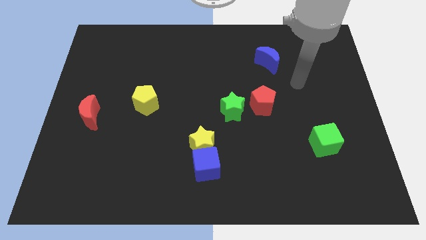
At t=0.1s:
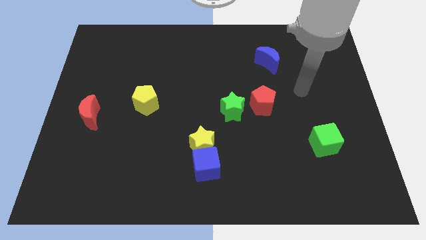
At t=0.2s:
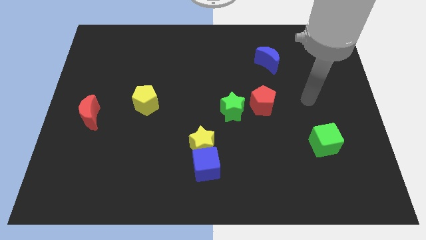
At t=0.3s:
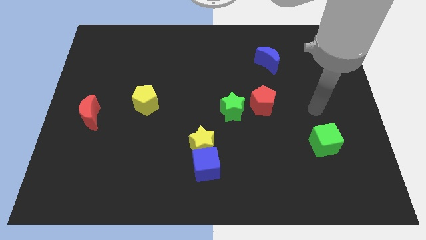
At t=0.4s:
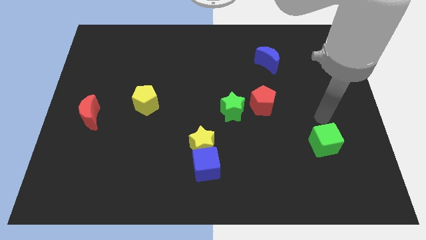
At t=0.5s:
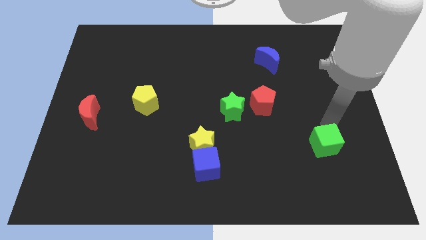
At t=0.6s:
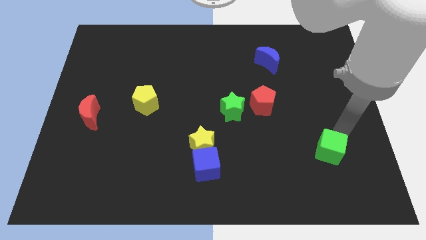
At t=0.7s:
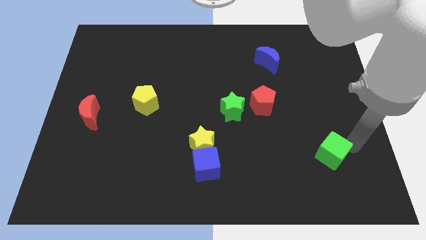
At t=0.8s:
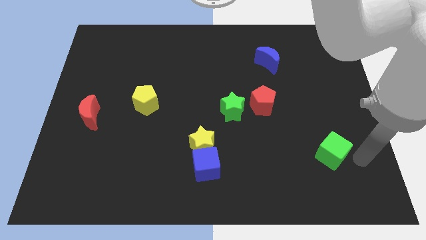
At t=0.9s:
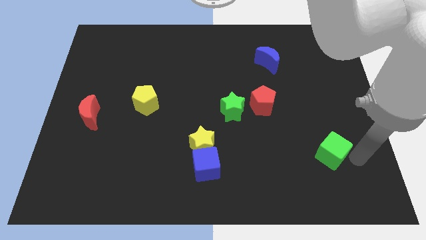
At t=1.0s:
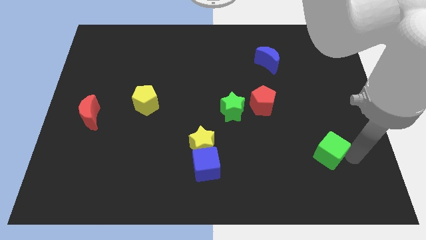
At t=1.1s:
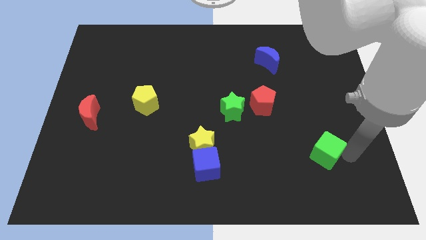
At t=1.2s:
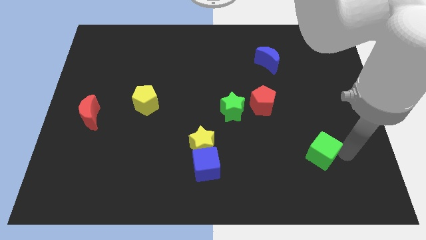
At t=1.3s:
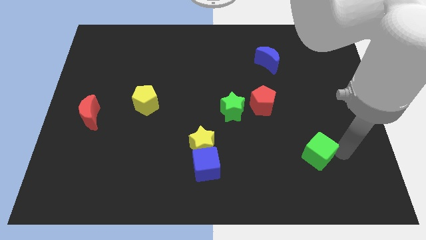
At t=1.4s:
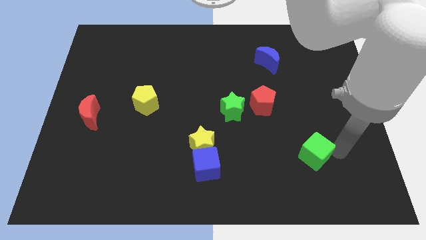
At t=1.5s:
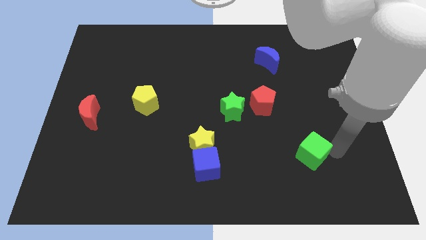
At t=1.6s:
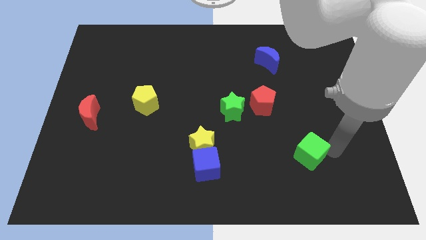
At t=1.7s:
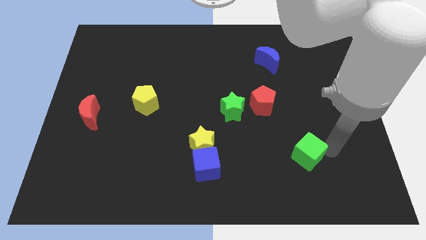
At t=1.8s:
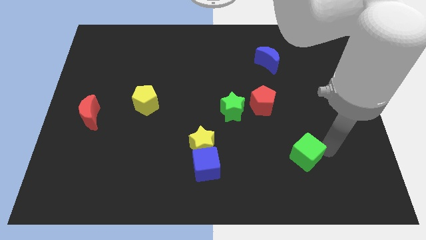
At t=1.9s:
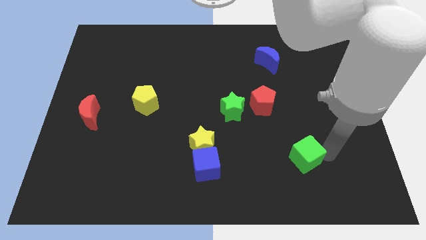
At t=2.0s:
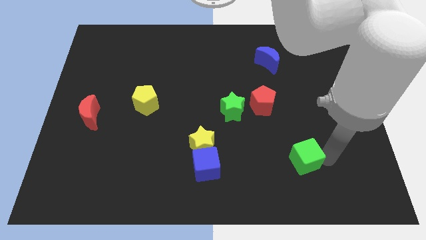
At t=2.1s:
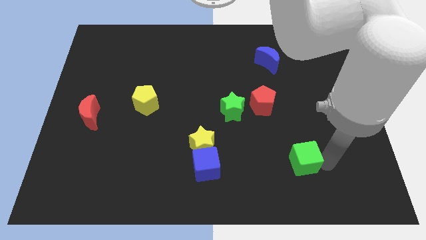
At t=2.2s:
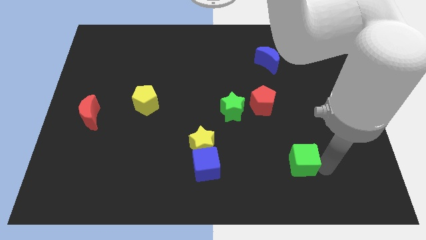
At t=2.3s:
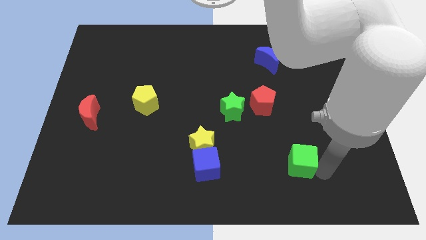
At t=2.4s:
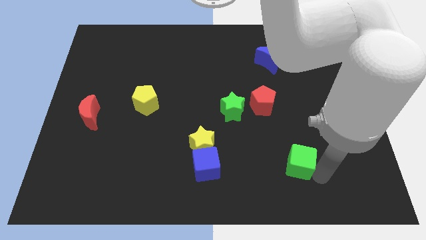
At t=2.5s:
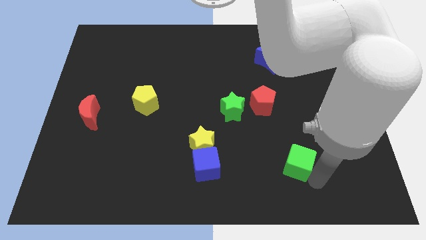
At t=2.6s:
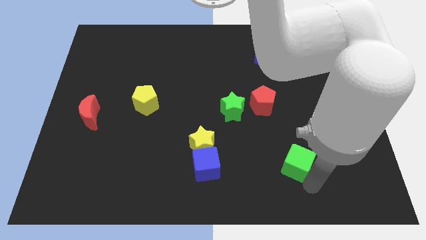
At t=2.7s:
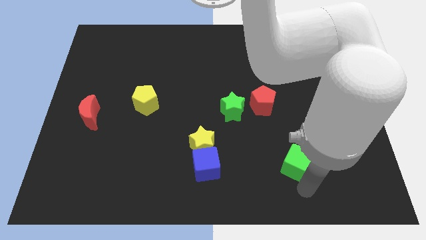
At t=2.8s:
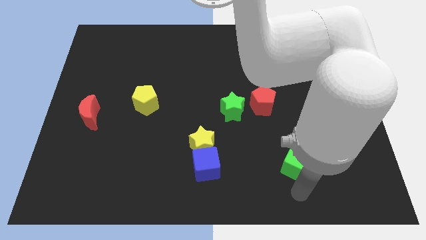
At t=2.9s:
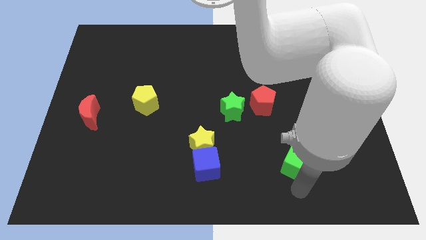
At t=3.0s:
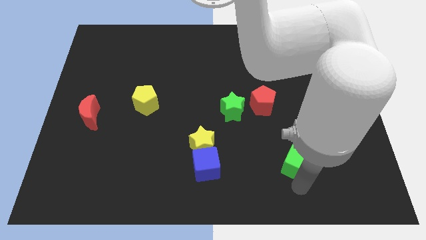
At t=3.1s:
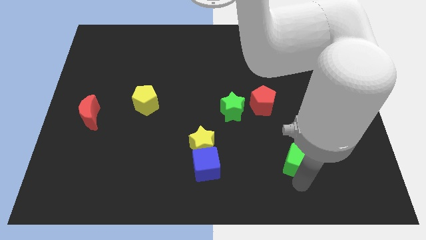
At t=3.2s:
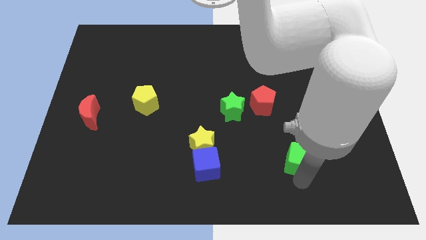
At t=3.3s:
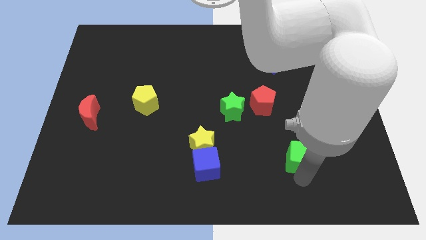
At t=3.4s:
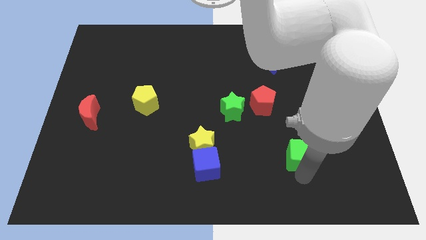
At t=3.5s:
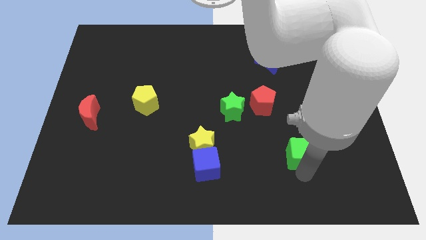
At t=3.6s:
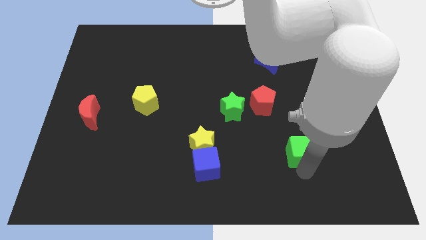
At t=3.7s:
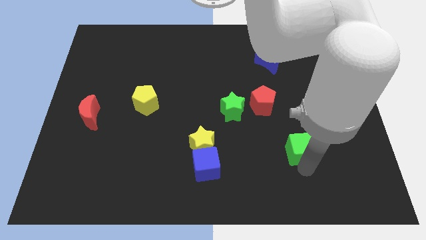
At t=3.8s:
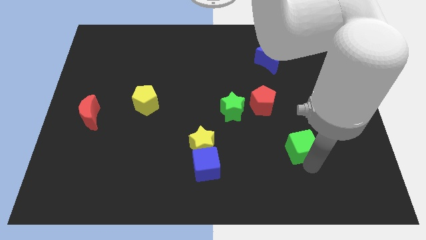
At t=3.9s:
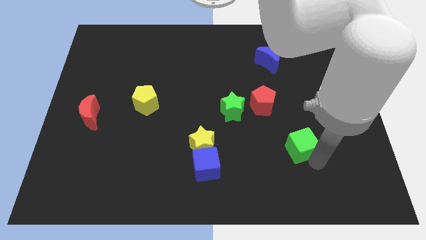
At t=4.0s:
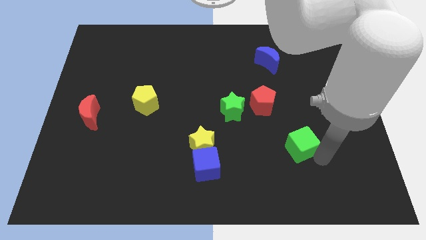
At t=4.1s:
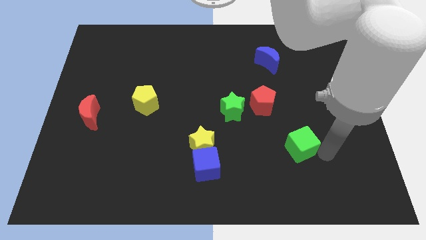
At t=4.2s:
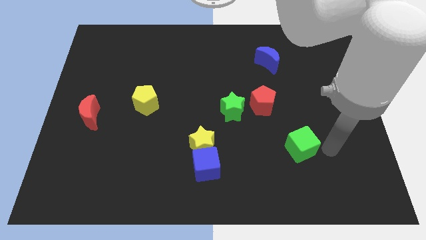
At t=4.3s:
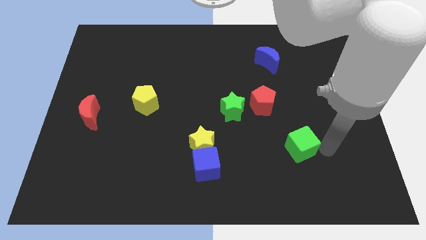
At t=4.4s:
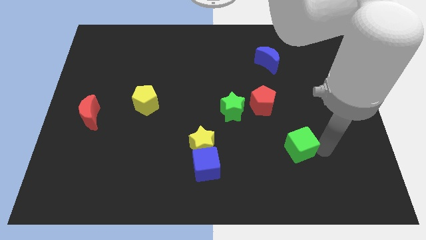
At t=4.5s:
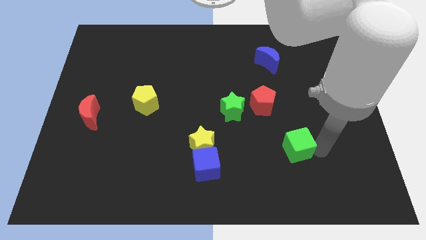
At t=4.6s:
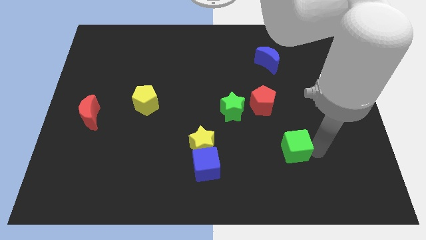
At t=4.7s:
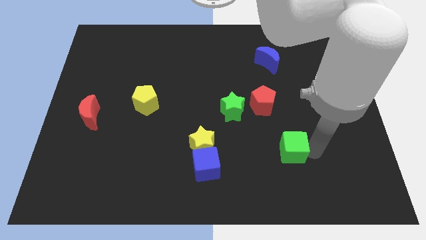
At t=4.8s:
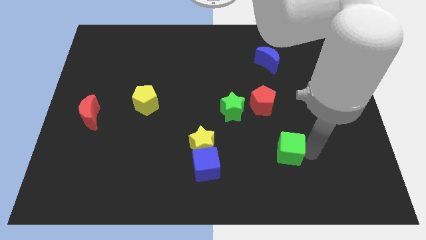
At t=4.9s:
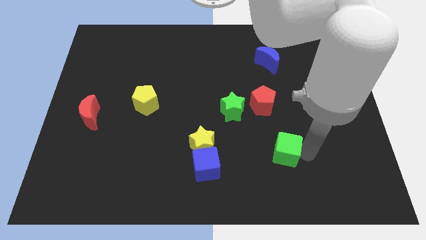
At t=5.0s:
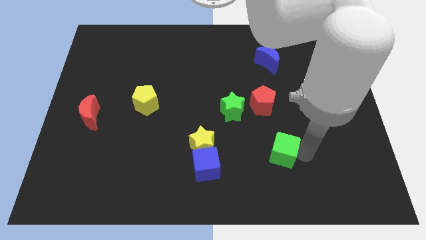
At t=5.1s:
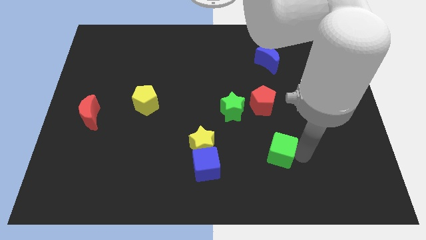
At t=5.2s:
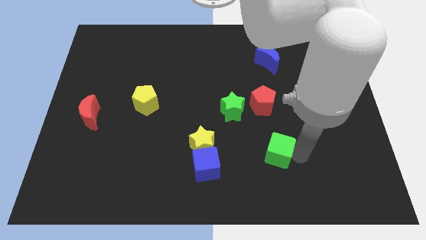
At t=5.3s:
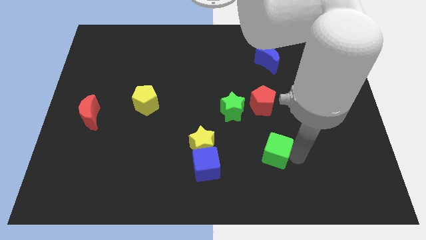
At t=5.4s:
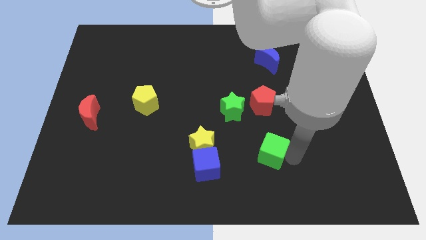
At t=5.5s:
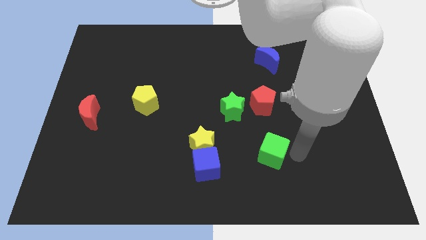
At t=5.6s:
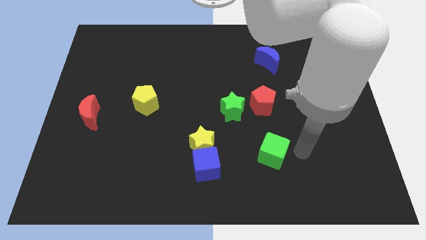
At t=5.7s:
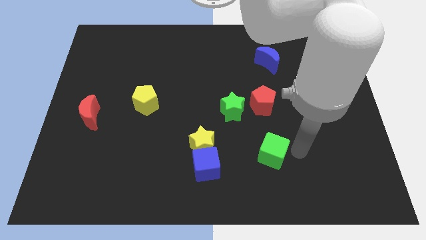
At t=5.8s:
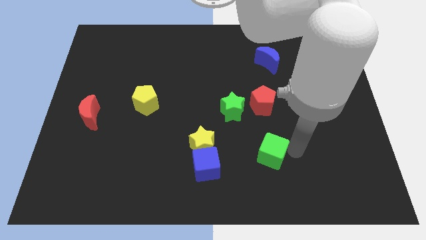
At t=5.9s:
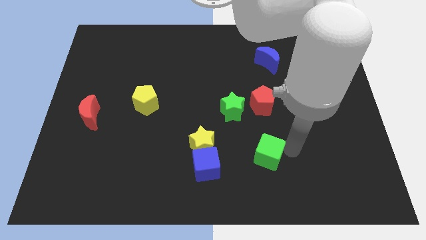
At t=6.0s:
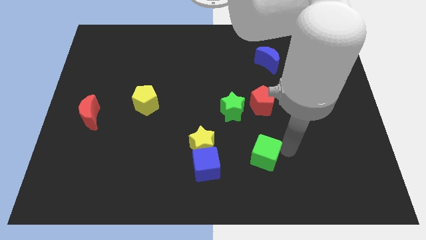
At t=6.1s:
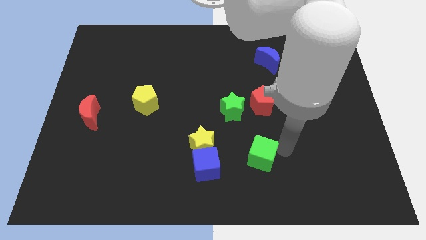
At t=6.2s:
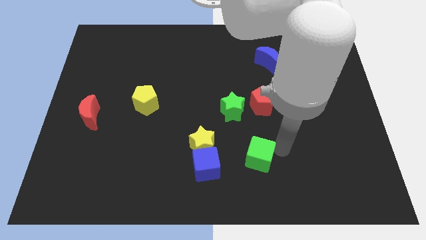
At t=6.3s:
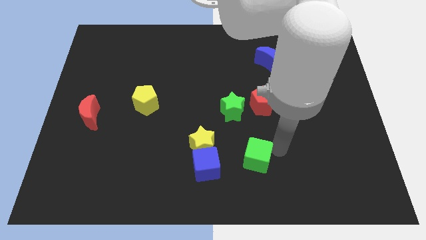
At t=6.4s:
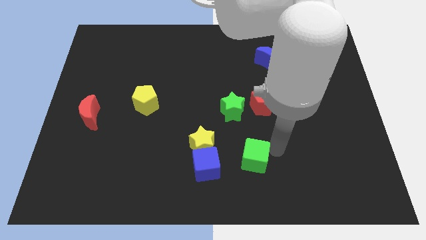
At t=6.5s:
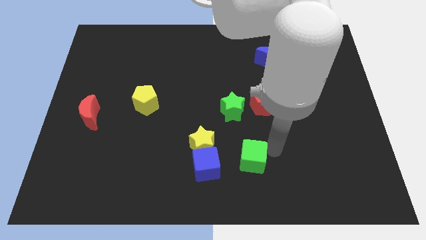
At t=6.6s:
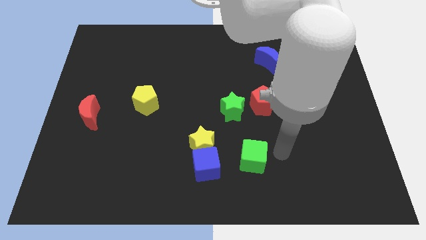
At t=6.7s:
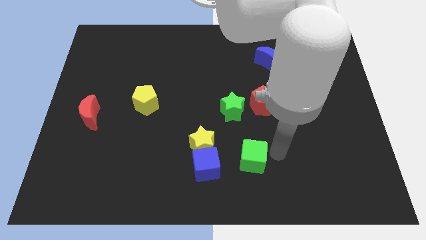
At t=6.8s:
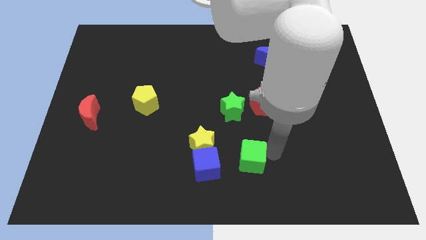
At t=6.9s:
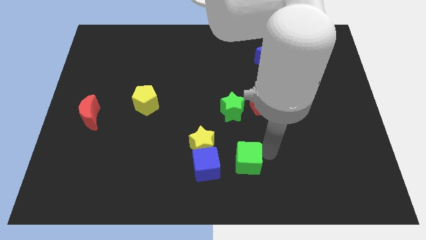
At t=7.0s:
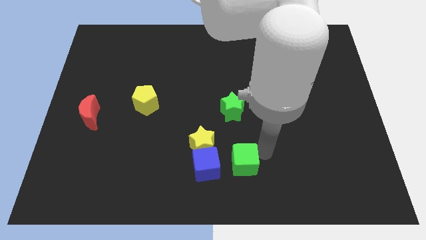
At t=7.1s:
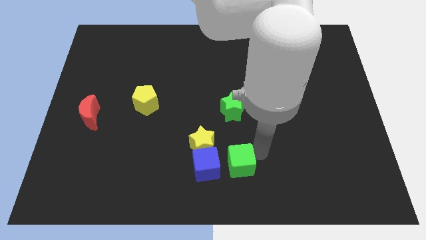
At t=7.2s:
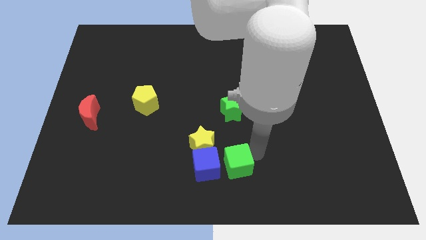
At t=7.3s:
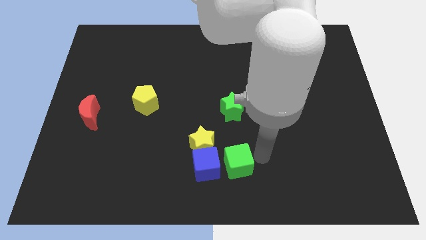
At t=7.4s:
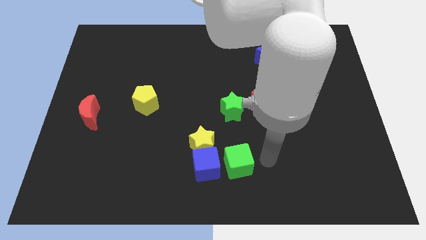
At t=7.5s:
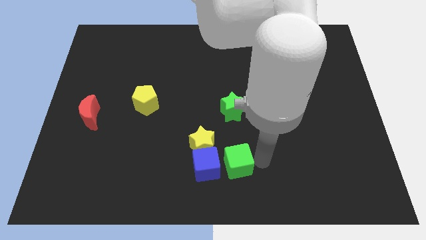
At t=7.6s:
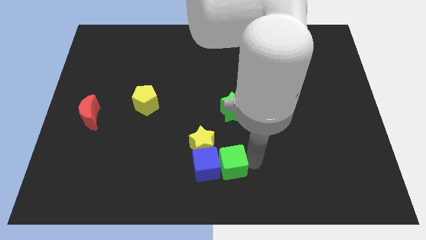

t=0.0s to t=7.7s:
slide the green cube next to the blue cube

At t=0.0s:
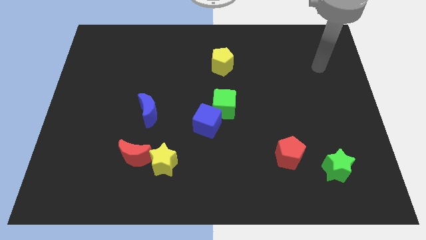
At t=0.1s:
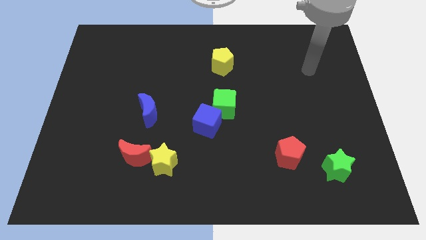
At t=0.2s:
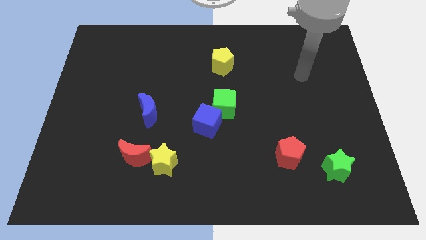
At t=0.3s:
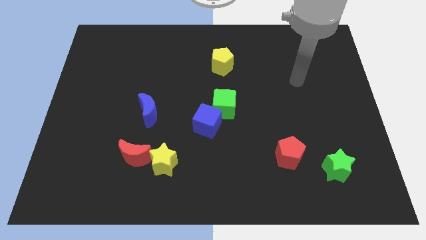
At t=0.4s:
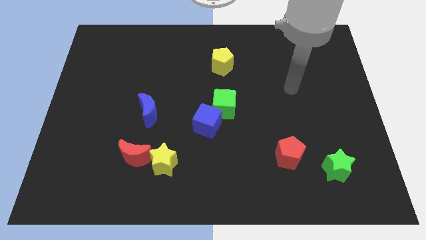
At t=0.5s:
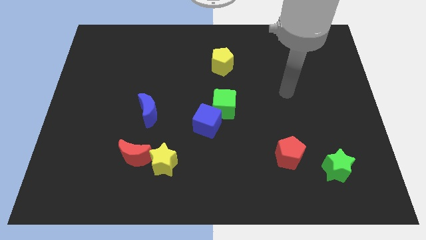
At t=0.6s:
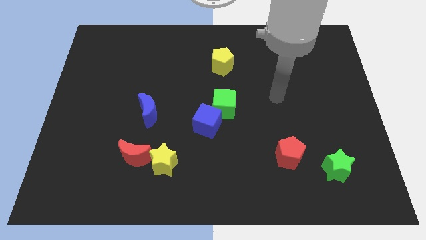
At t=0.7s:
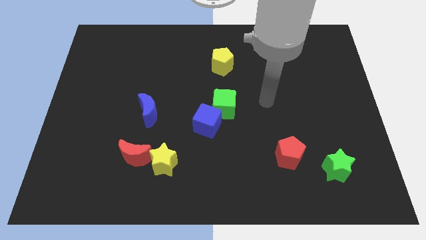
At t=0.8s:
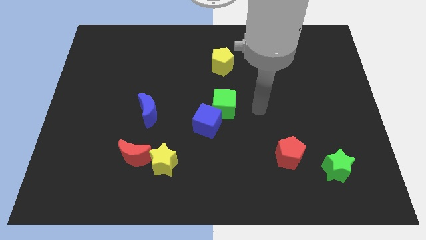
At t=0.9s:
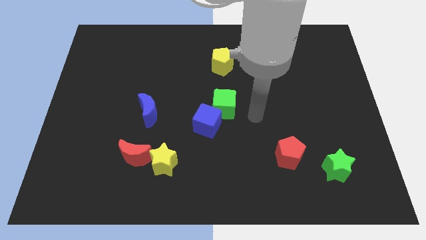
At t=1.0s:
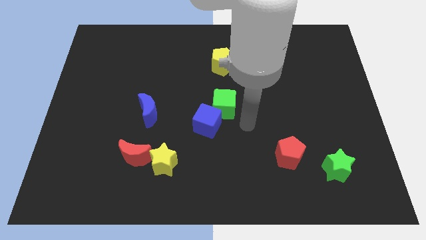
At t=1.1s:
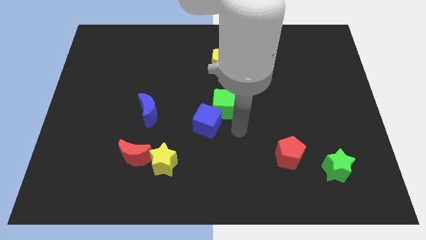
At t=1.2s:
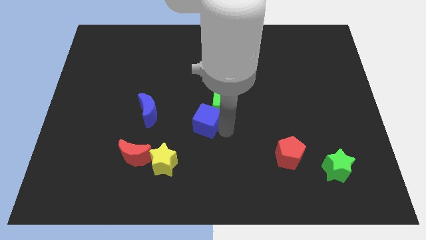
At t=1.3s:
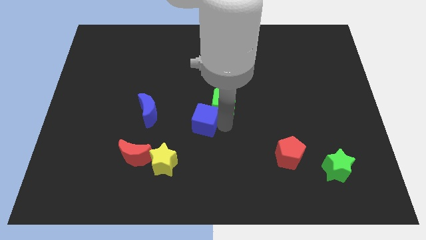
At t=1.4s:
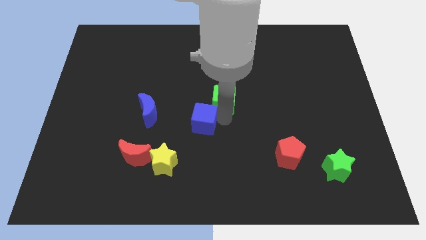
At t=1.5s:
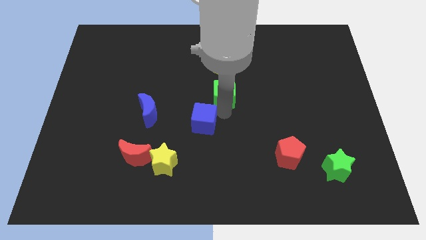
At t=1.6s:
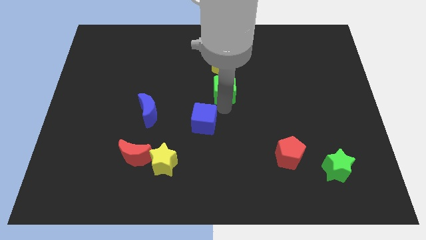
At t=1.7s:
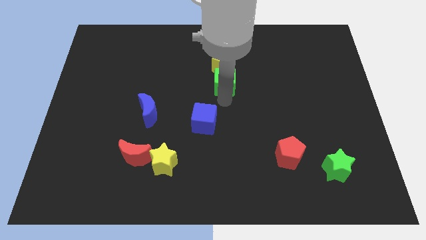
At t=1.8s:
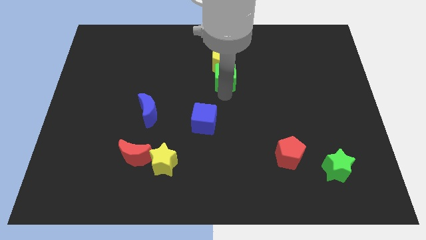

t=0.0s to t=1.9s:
put the green cube next to the yellow pentagon
